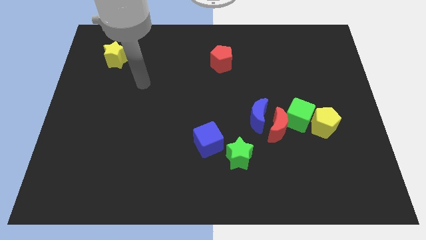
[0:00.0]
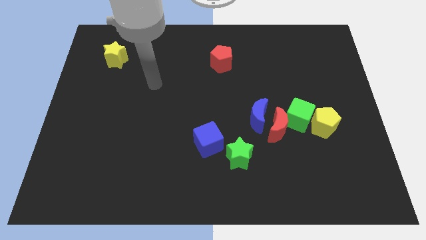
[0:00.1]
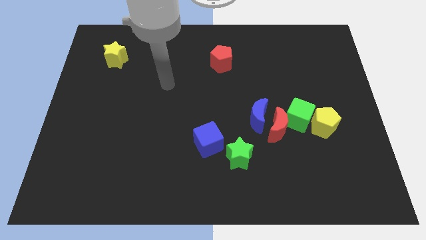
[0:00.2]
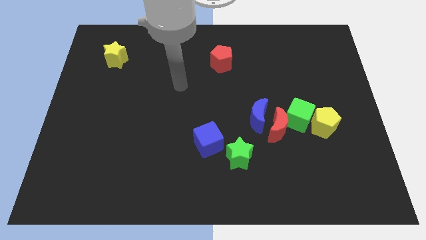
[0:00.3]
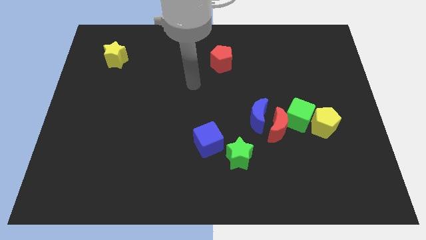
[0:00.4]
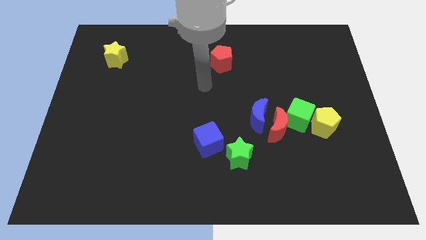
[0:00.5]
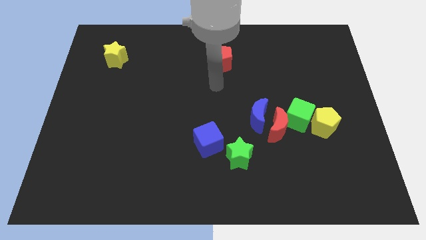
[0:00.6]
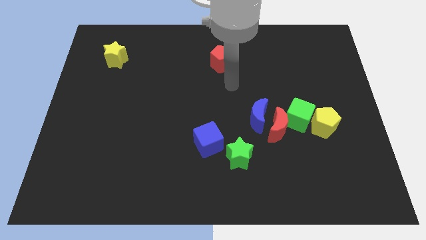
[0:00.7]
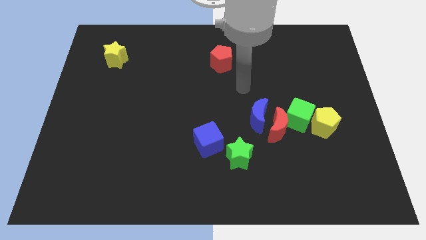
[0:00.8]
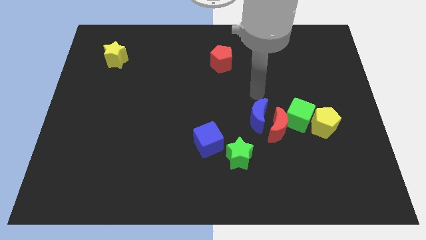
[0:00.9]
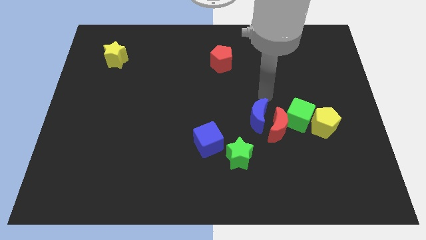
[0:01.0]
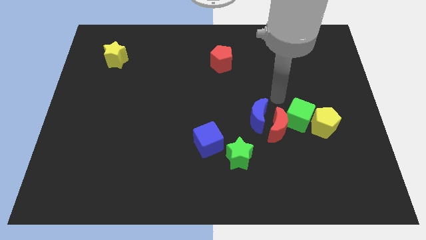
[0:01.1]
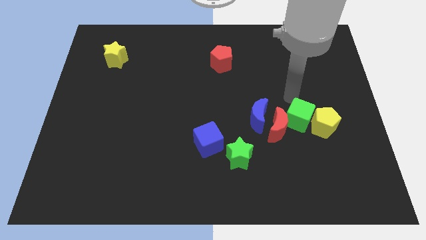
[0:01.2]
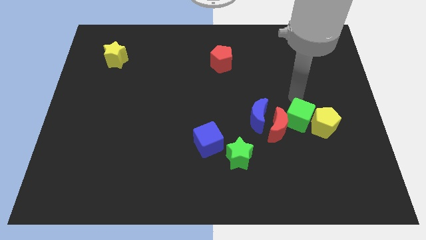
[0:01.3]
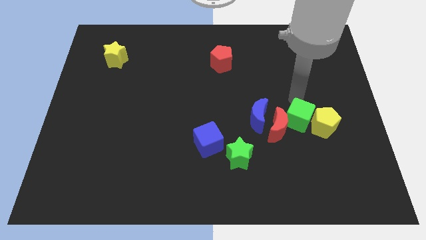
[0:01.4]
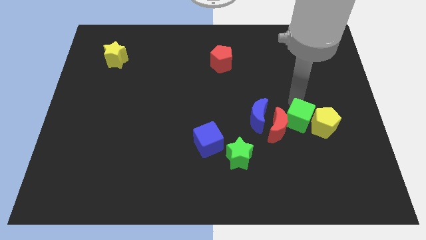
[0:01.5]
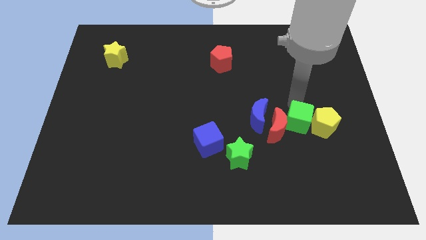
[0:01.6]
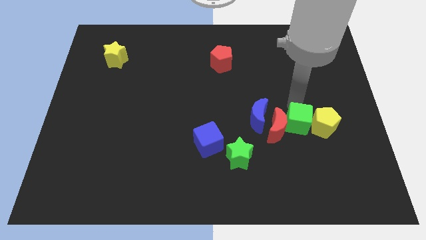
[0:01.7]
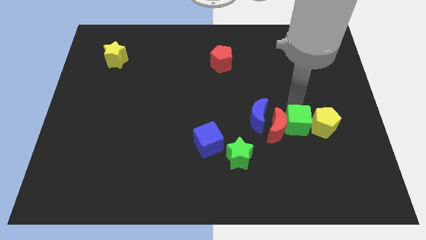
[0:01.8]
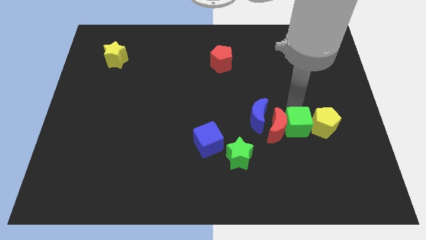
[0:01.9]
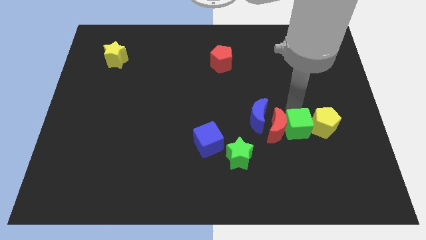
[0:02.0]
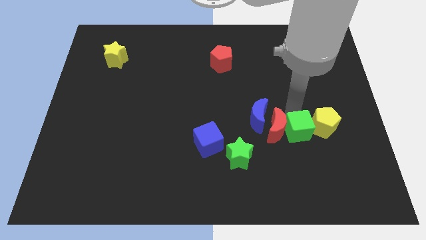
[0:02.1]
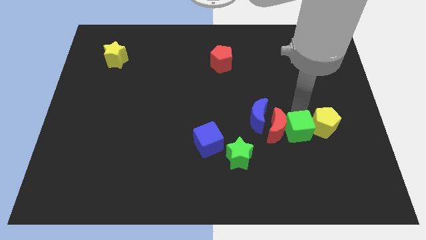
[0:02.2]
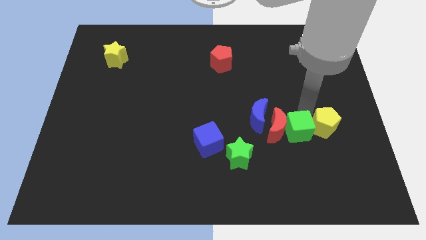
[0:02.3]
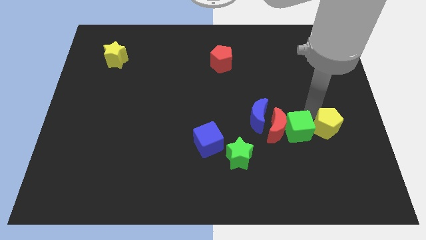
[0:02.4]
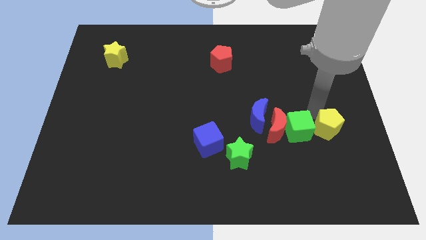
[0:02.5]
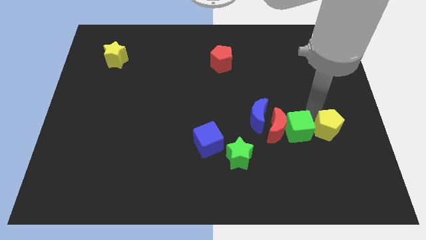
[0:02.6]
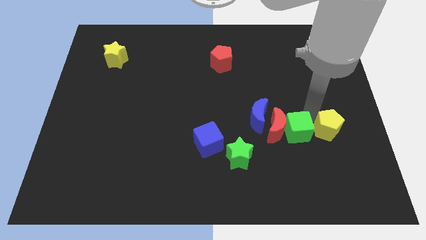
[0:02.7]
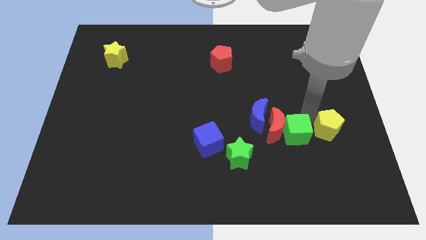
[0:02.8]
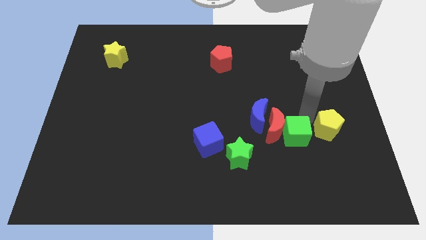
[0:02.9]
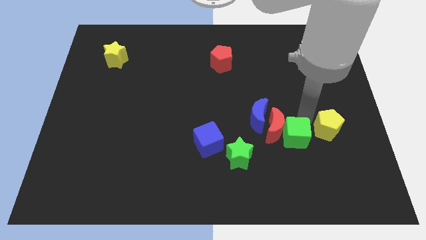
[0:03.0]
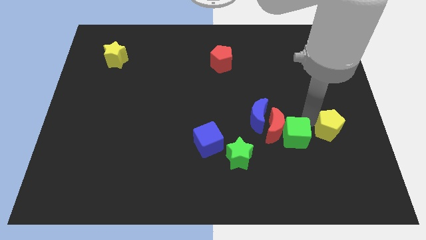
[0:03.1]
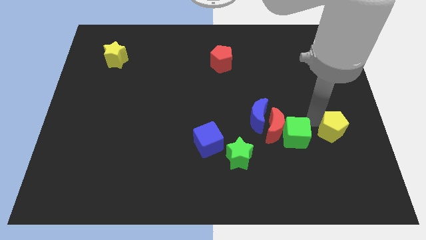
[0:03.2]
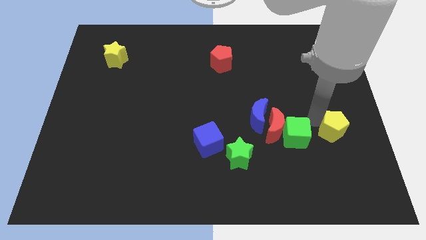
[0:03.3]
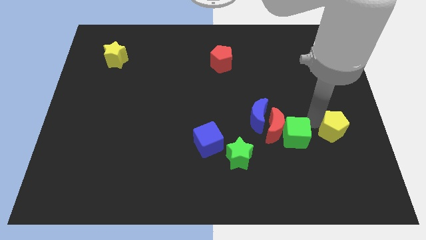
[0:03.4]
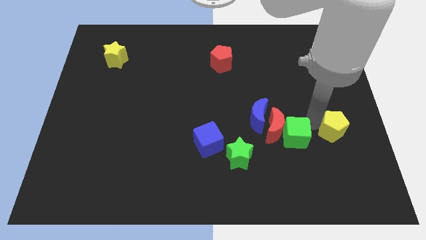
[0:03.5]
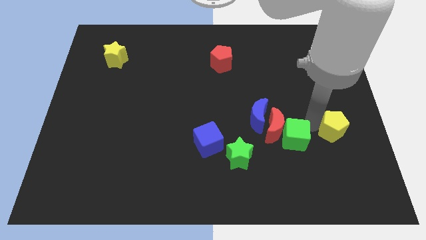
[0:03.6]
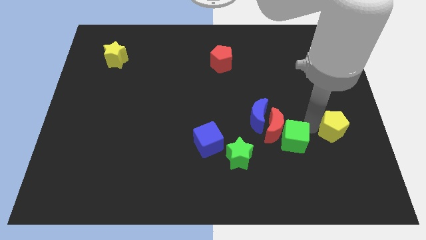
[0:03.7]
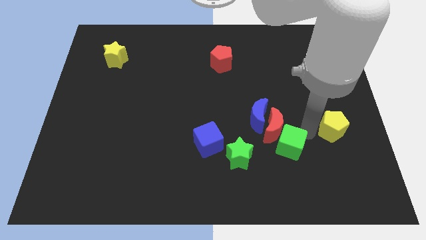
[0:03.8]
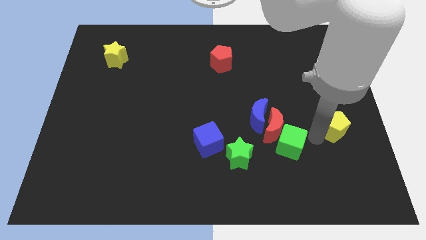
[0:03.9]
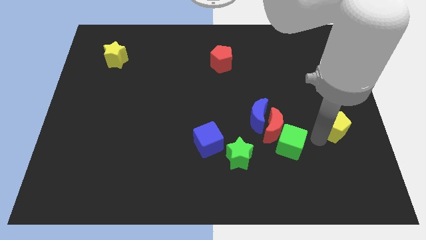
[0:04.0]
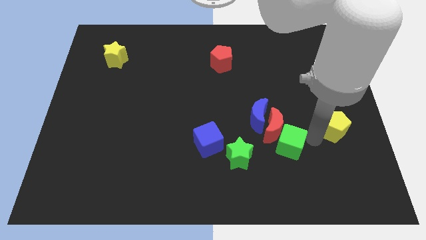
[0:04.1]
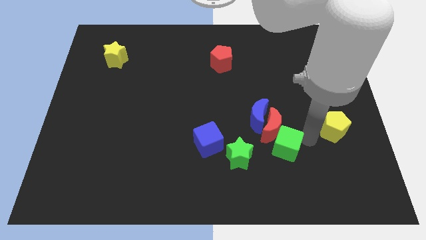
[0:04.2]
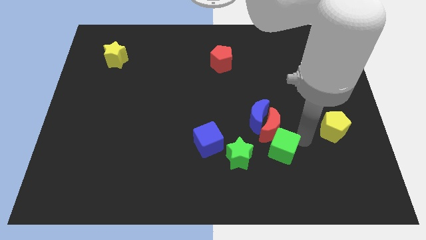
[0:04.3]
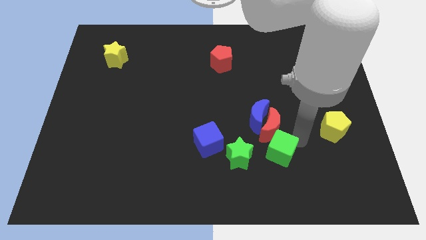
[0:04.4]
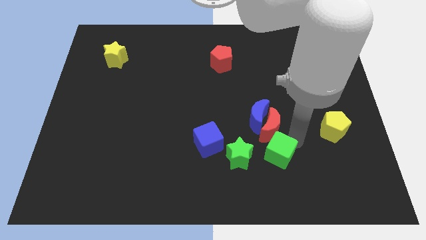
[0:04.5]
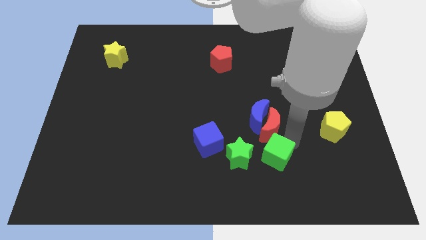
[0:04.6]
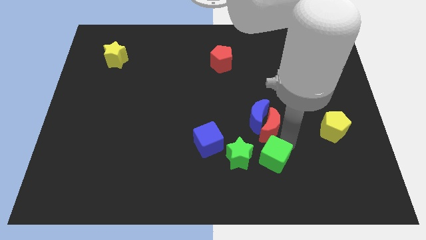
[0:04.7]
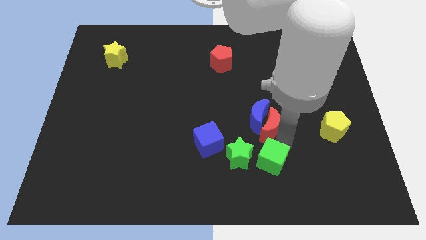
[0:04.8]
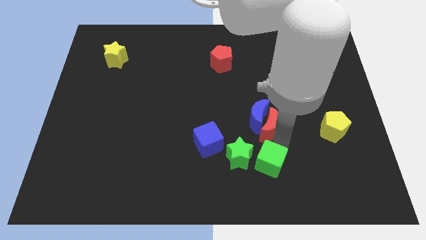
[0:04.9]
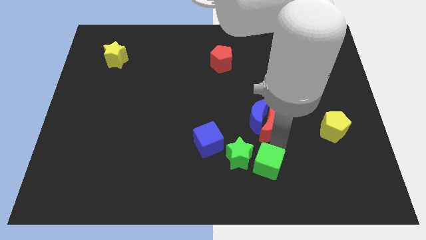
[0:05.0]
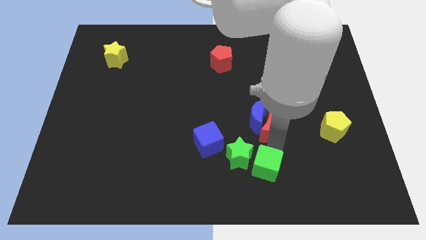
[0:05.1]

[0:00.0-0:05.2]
put the green cube to the green star

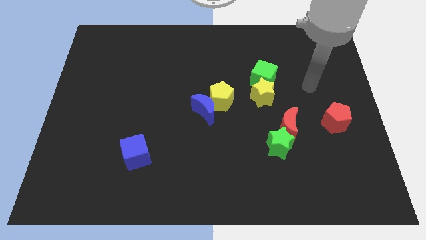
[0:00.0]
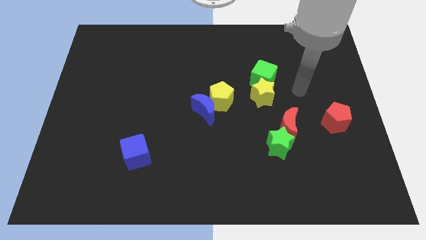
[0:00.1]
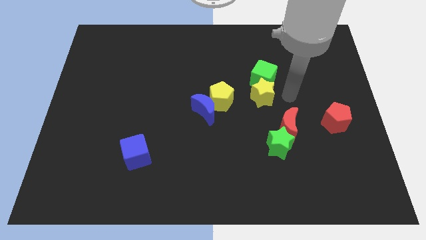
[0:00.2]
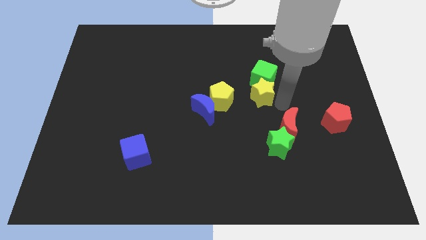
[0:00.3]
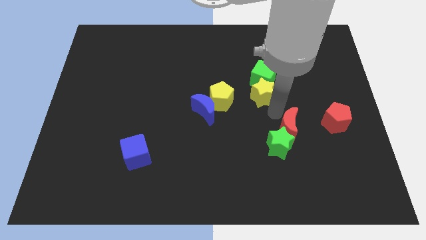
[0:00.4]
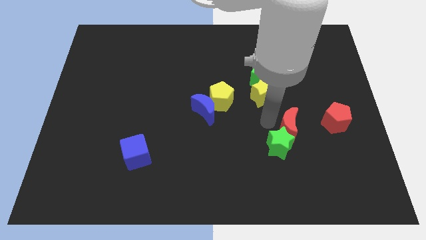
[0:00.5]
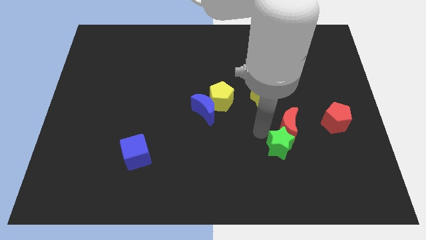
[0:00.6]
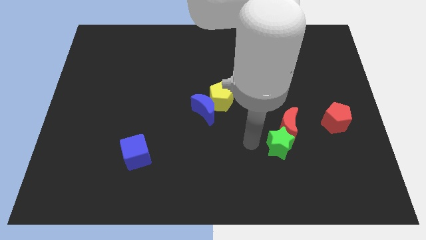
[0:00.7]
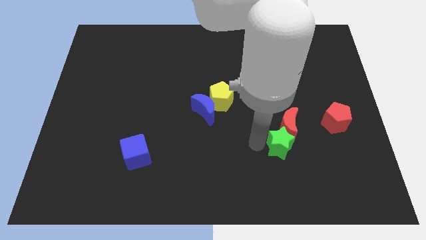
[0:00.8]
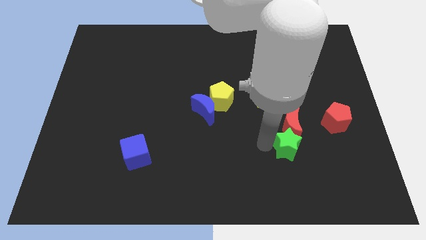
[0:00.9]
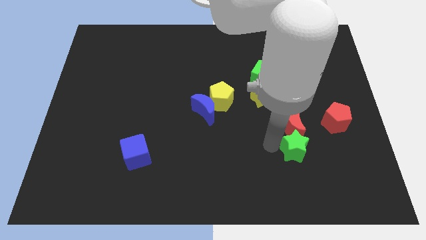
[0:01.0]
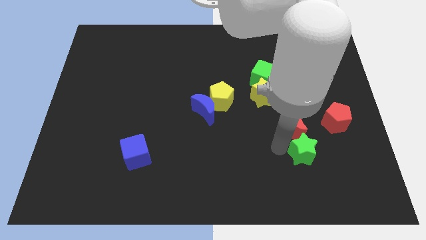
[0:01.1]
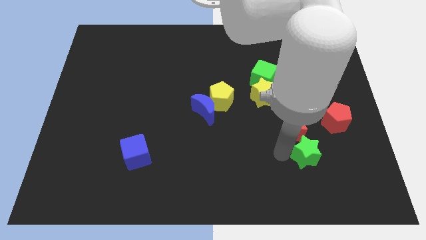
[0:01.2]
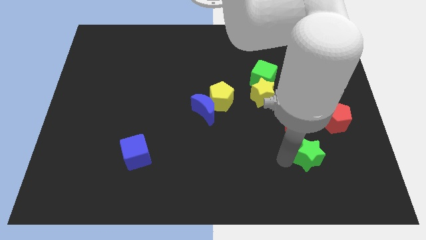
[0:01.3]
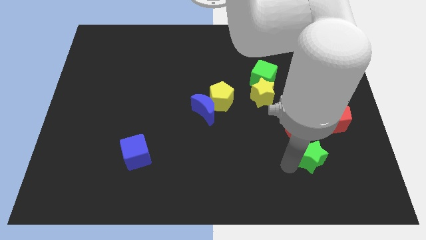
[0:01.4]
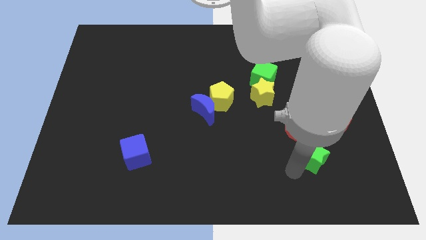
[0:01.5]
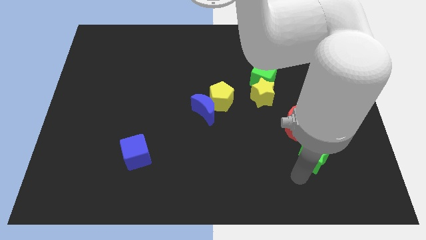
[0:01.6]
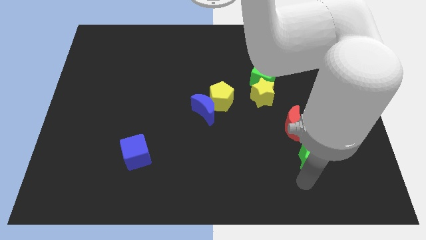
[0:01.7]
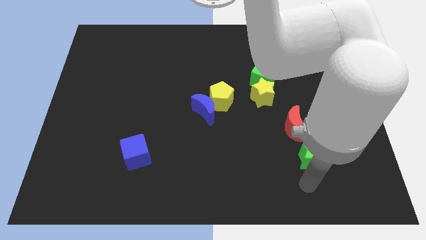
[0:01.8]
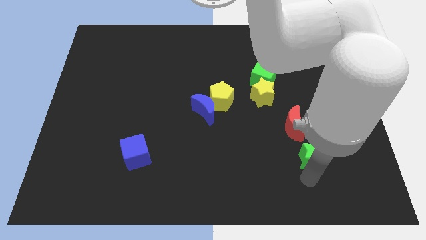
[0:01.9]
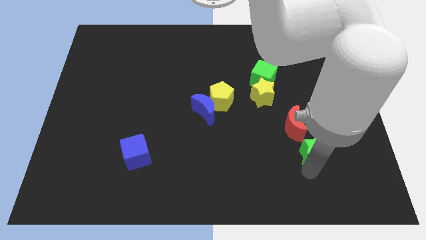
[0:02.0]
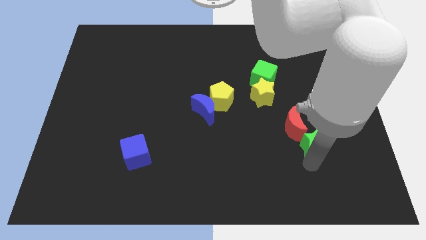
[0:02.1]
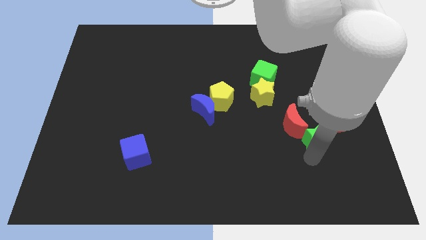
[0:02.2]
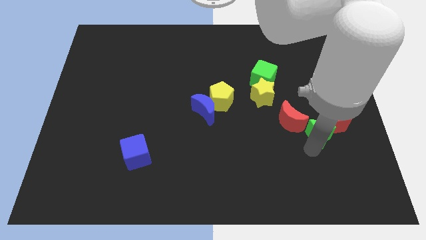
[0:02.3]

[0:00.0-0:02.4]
slide the green star towards the red pentagon
